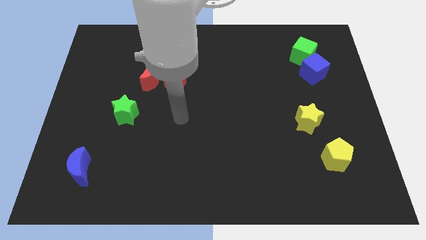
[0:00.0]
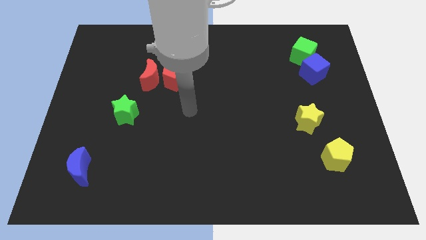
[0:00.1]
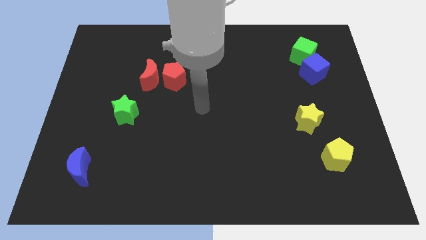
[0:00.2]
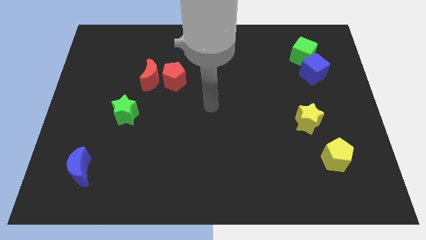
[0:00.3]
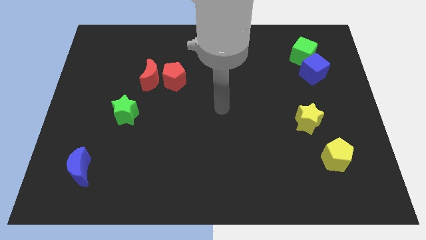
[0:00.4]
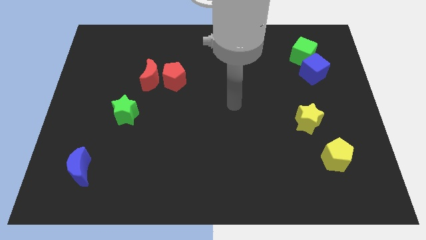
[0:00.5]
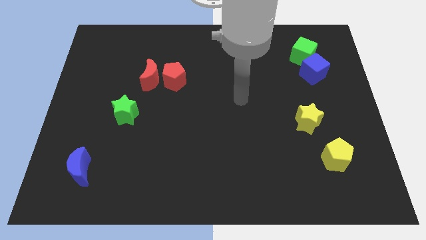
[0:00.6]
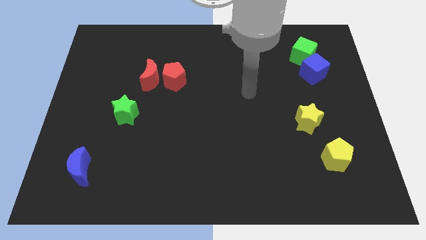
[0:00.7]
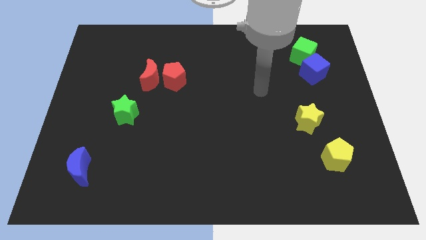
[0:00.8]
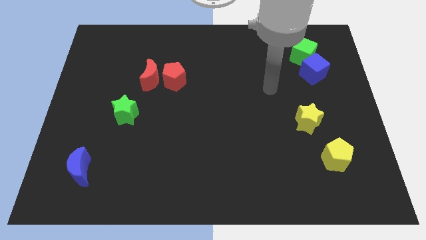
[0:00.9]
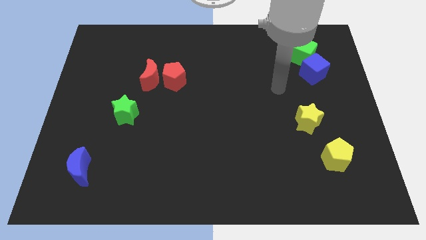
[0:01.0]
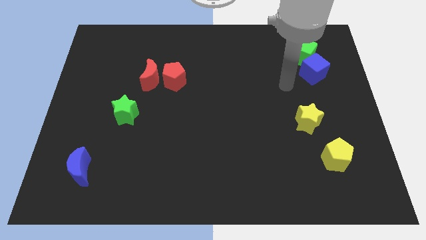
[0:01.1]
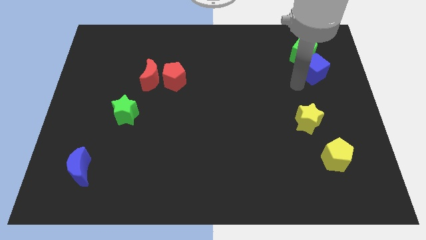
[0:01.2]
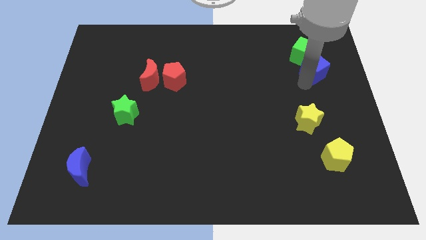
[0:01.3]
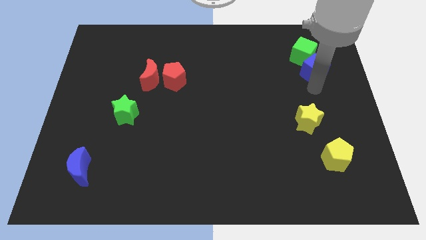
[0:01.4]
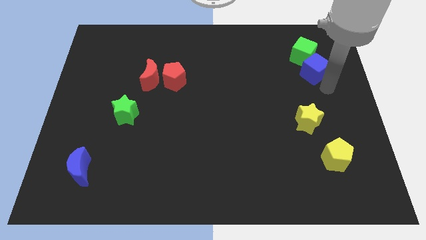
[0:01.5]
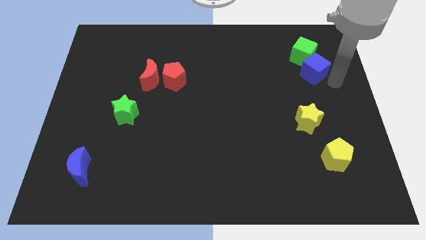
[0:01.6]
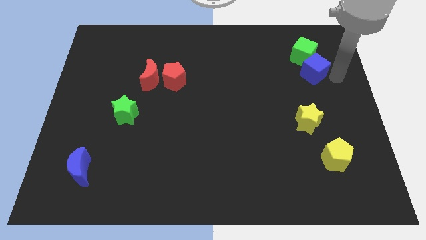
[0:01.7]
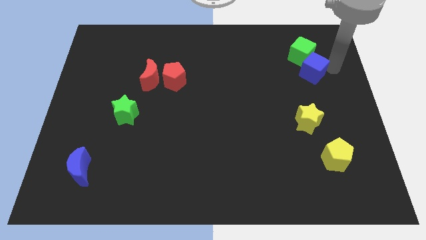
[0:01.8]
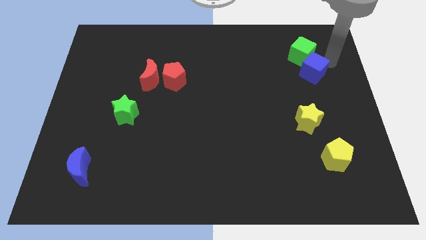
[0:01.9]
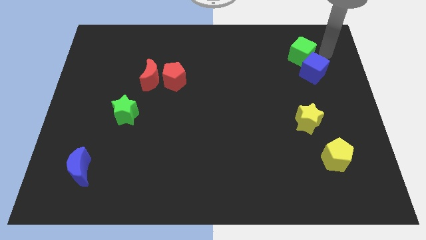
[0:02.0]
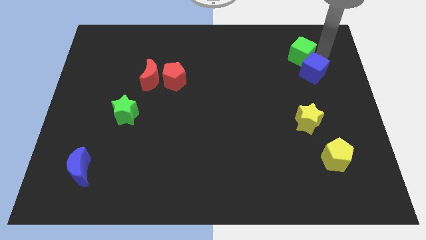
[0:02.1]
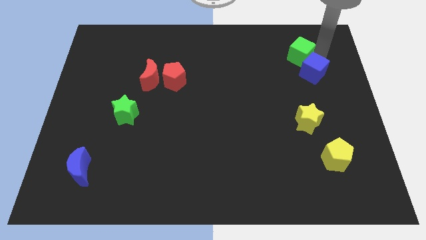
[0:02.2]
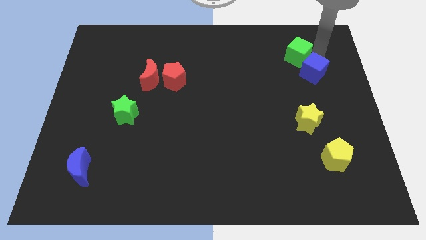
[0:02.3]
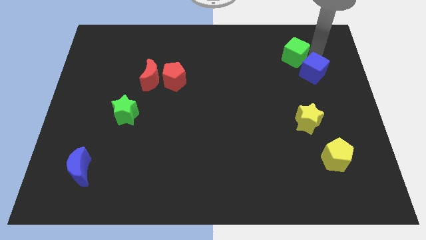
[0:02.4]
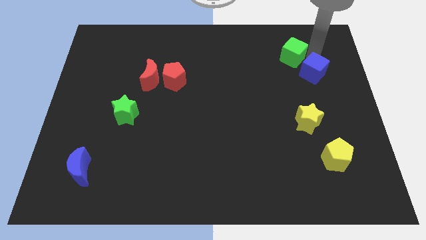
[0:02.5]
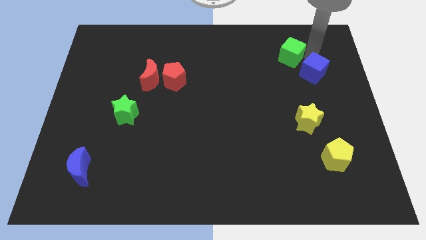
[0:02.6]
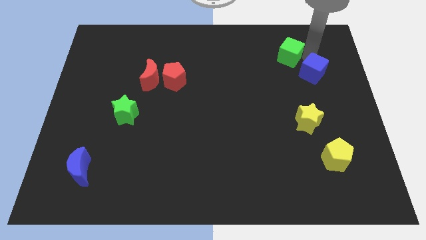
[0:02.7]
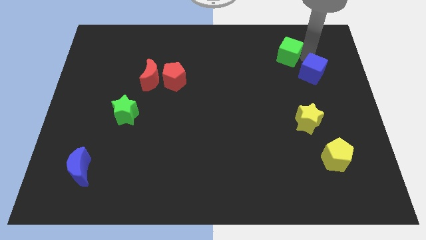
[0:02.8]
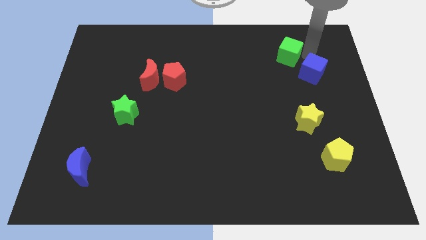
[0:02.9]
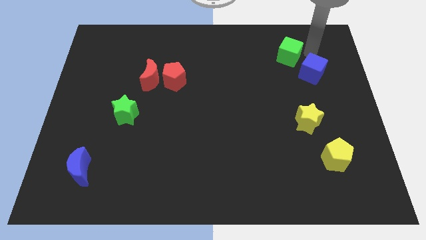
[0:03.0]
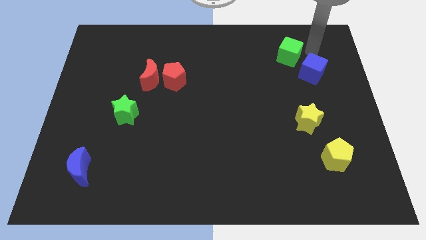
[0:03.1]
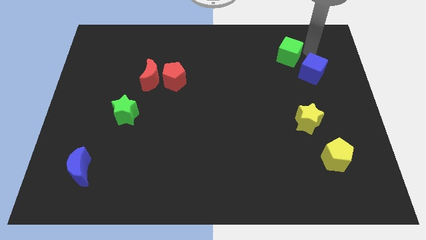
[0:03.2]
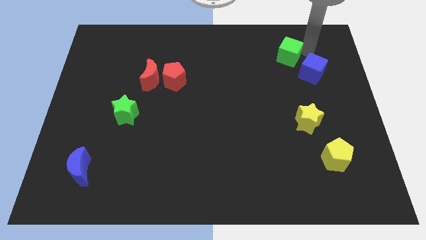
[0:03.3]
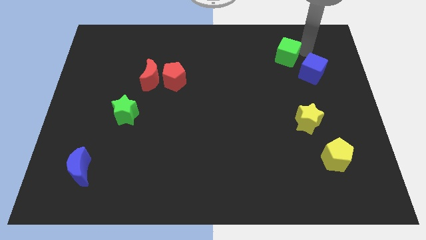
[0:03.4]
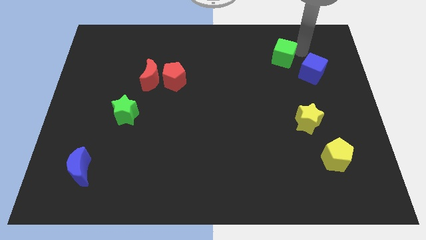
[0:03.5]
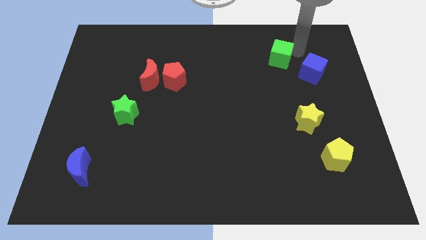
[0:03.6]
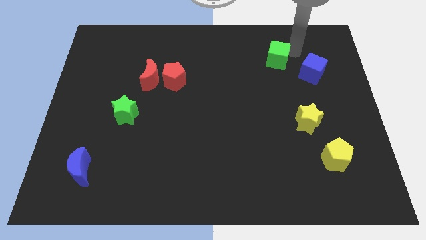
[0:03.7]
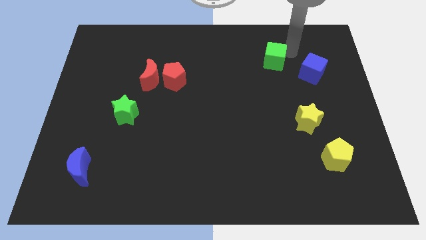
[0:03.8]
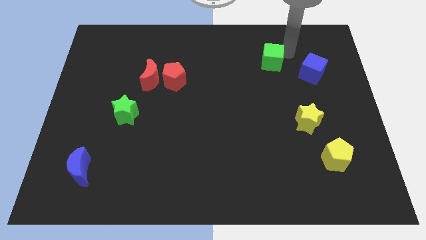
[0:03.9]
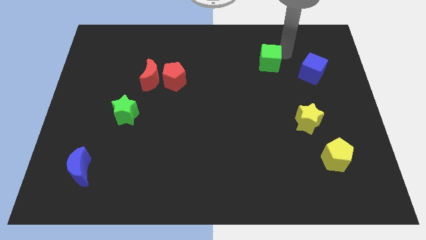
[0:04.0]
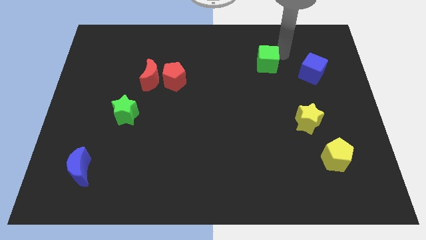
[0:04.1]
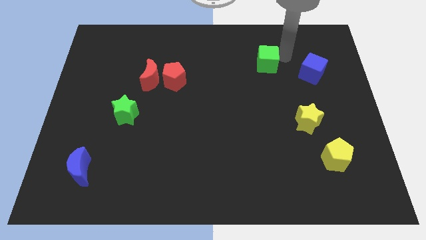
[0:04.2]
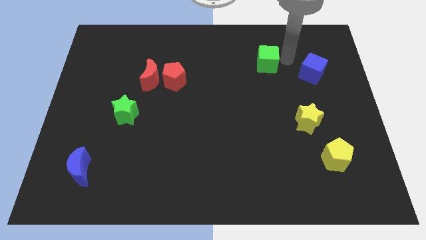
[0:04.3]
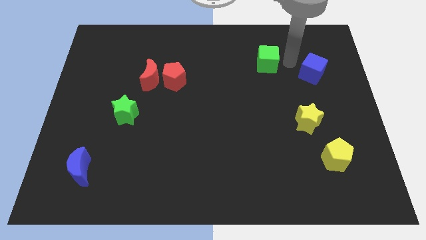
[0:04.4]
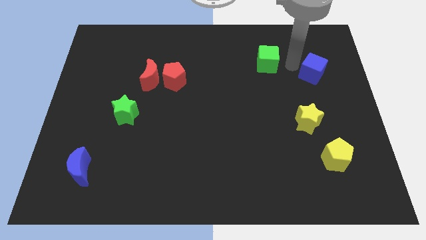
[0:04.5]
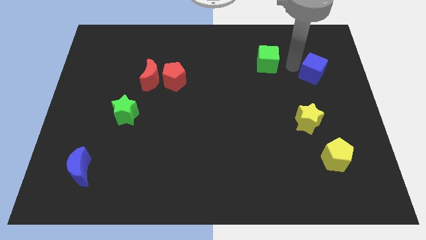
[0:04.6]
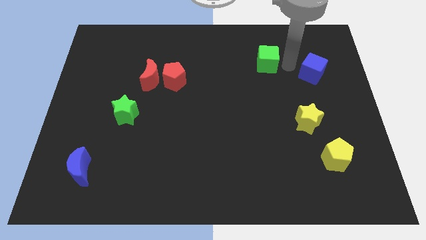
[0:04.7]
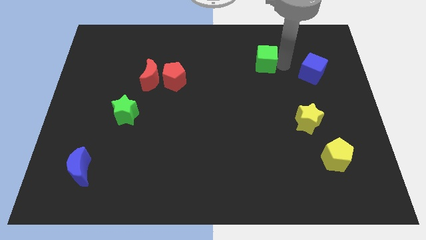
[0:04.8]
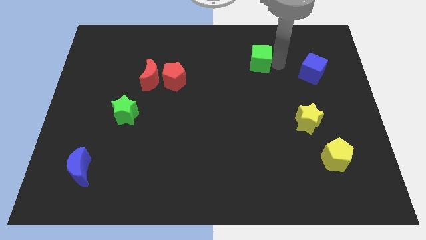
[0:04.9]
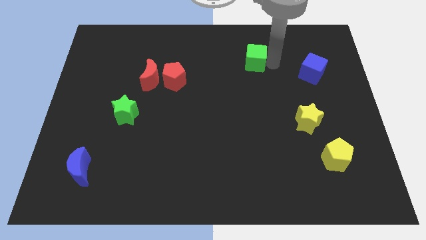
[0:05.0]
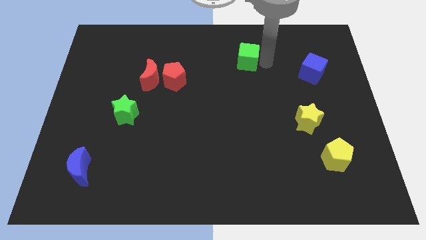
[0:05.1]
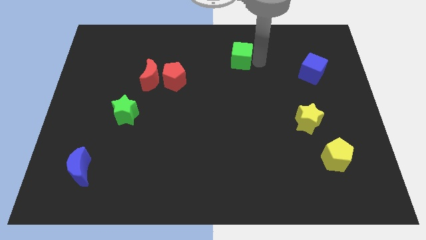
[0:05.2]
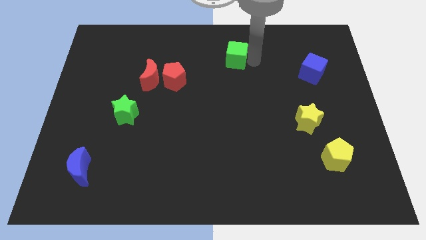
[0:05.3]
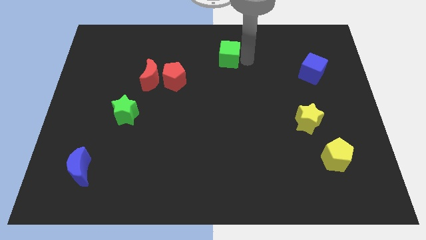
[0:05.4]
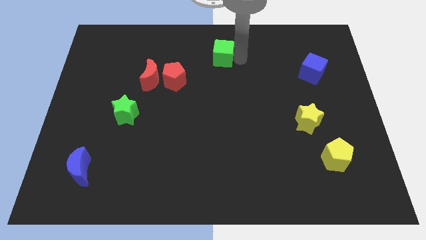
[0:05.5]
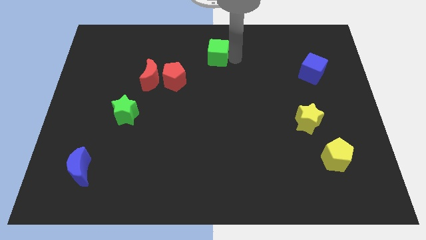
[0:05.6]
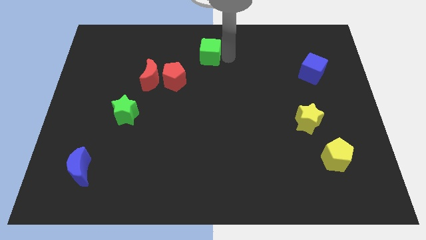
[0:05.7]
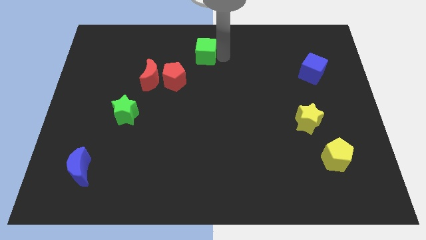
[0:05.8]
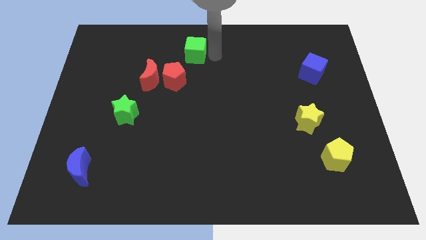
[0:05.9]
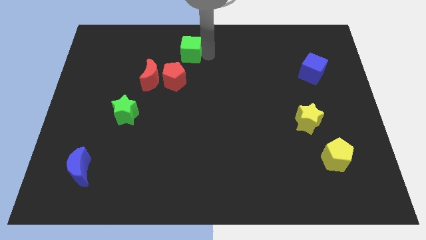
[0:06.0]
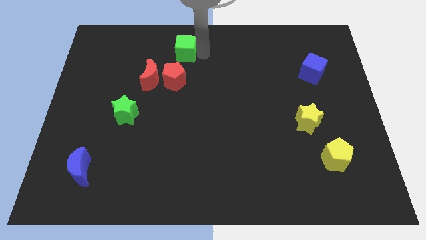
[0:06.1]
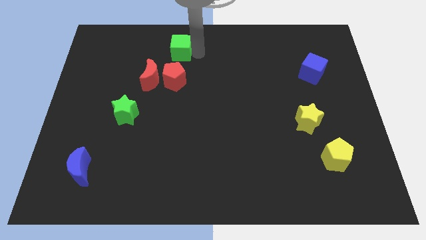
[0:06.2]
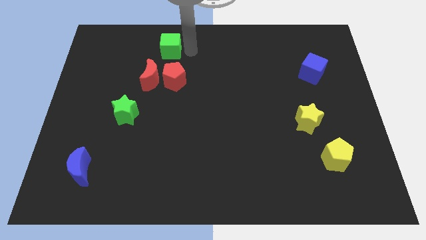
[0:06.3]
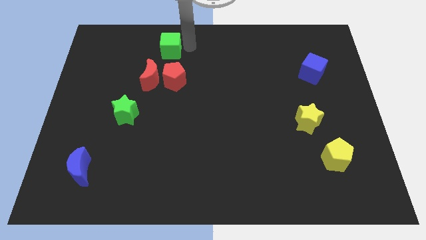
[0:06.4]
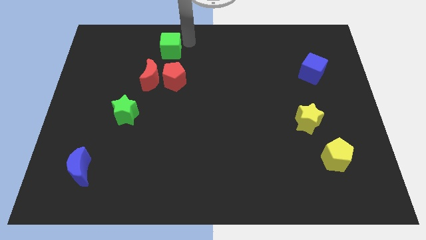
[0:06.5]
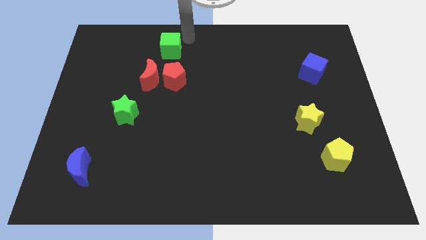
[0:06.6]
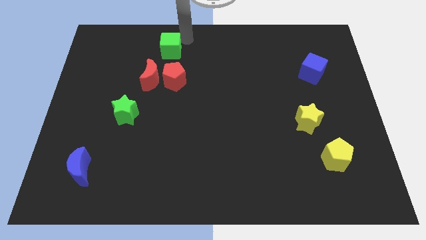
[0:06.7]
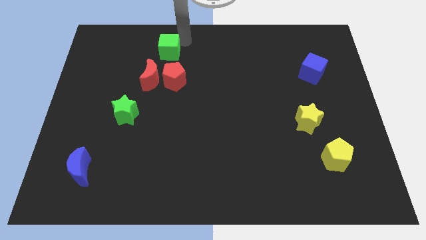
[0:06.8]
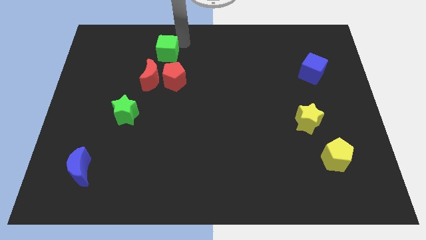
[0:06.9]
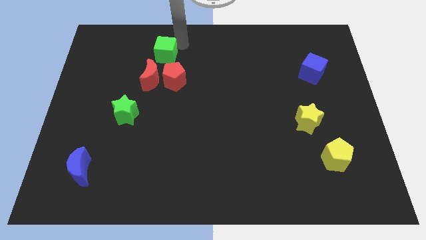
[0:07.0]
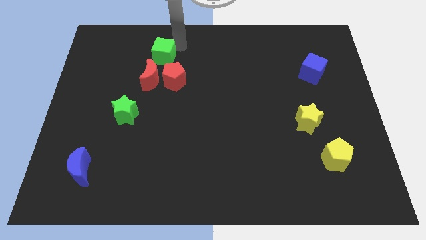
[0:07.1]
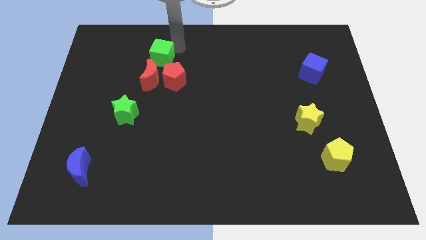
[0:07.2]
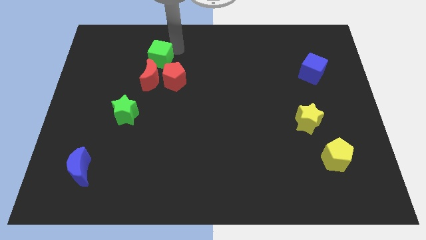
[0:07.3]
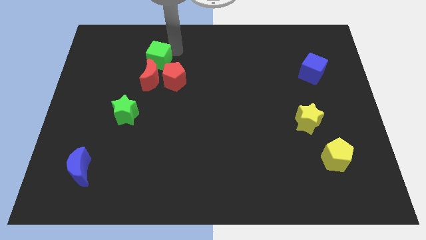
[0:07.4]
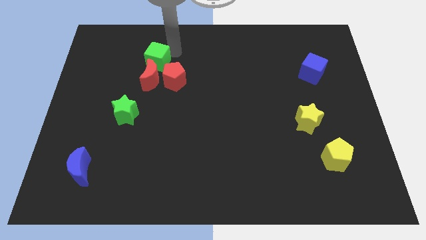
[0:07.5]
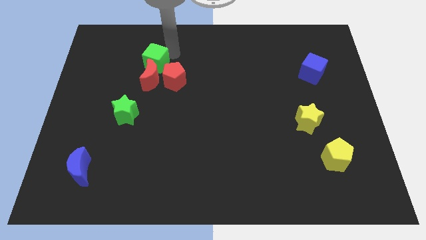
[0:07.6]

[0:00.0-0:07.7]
slide the green cube to the top left side of the red moon

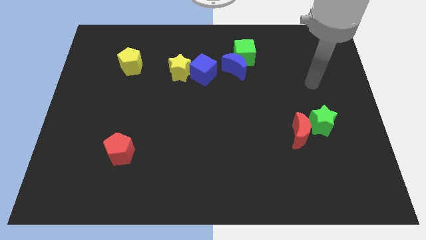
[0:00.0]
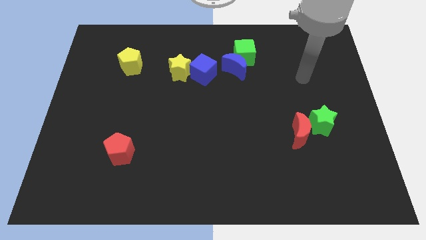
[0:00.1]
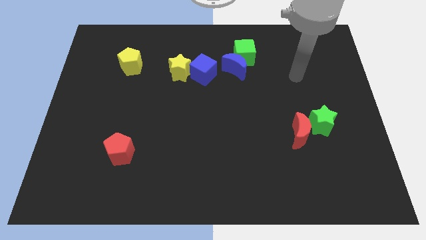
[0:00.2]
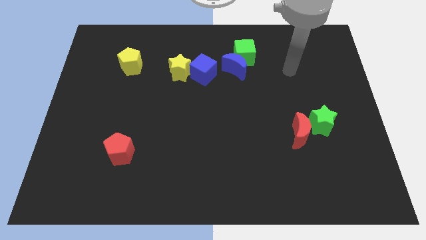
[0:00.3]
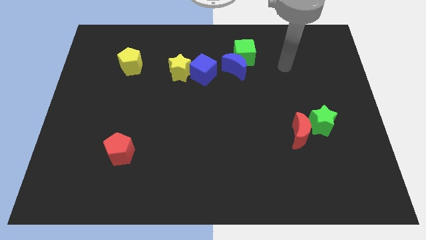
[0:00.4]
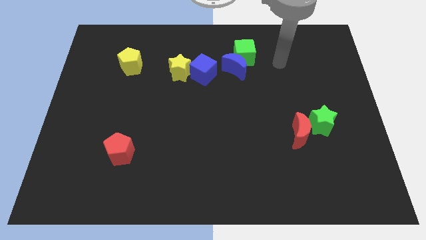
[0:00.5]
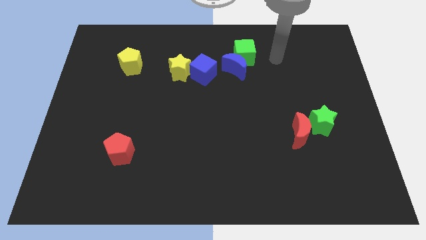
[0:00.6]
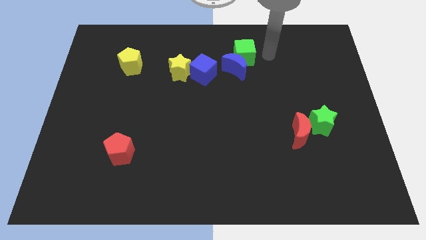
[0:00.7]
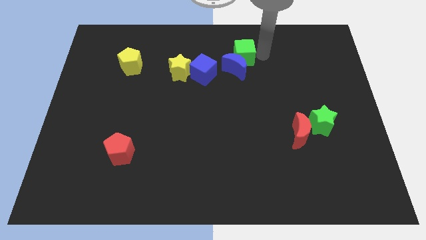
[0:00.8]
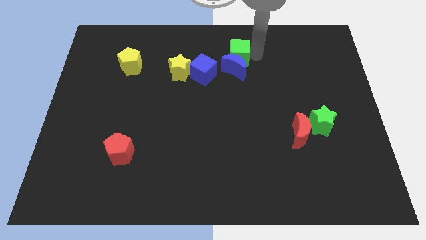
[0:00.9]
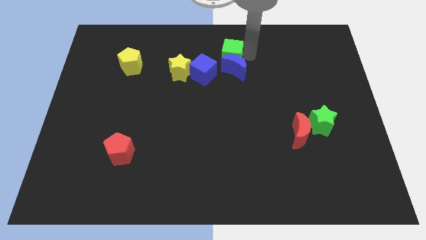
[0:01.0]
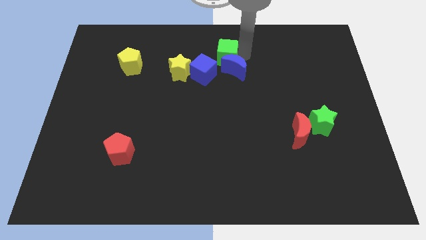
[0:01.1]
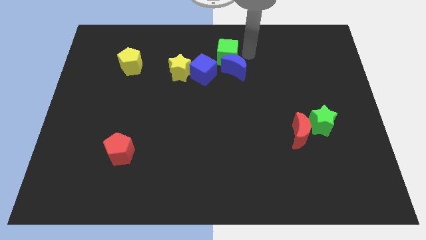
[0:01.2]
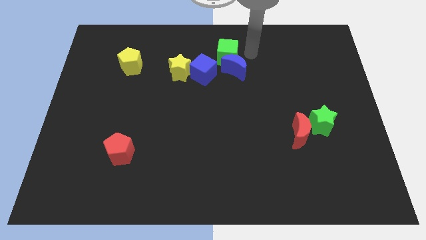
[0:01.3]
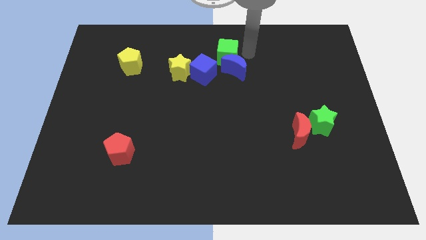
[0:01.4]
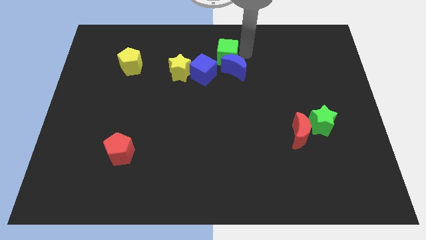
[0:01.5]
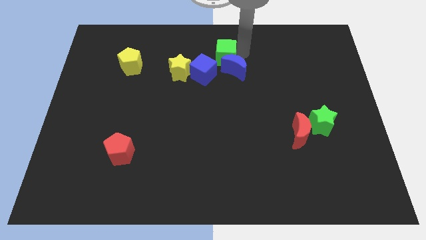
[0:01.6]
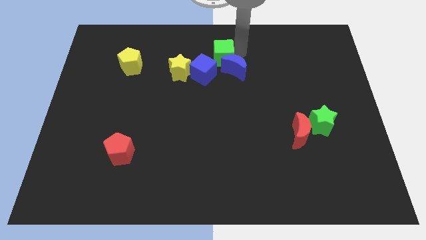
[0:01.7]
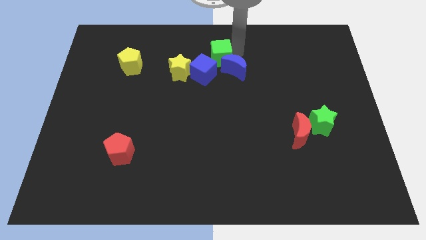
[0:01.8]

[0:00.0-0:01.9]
push the green cube to the top right side of the yellow star
